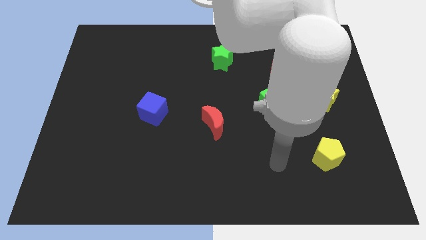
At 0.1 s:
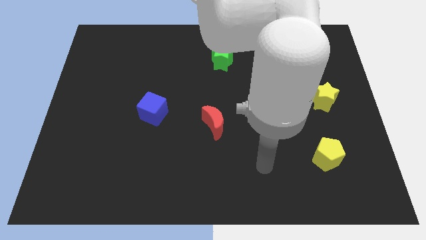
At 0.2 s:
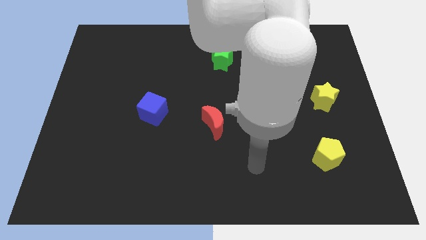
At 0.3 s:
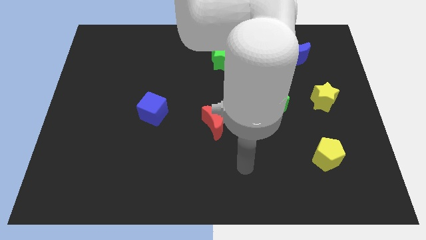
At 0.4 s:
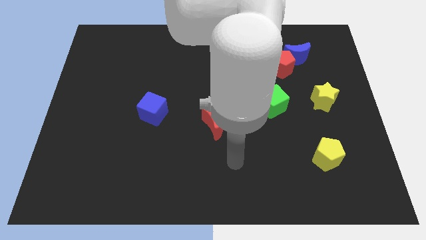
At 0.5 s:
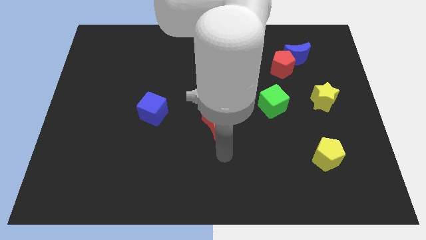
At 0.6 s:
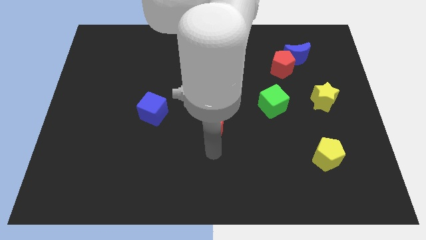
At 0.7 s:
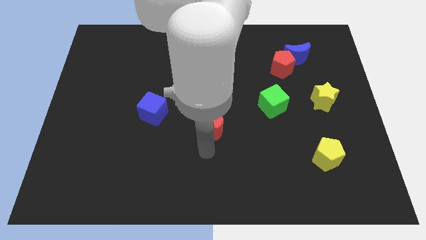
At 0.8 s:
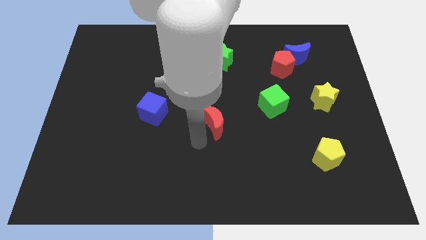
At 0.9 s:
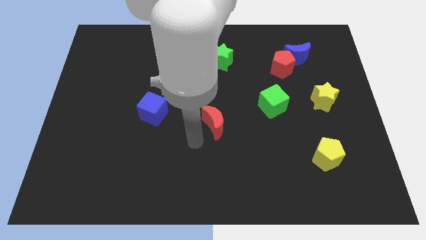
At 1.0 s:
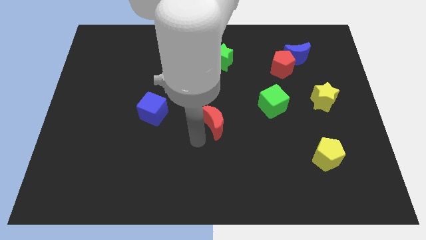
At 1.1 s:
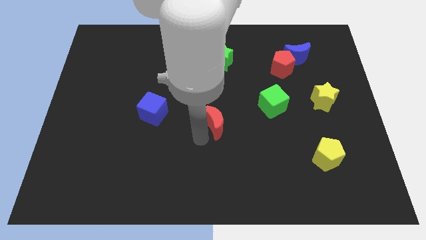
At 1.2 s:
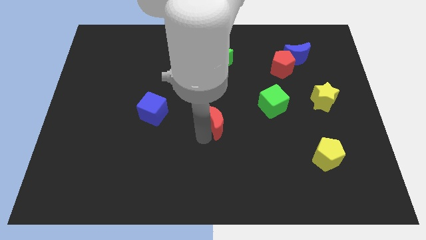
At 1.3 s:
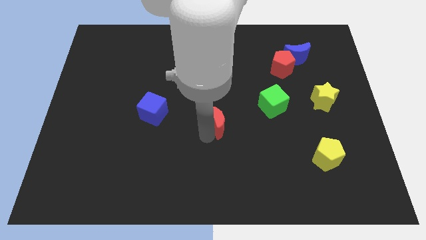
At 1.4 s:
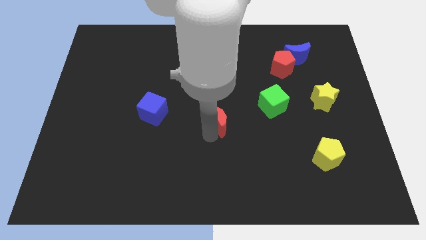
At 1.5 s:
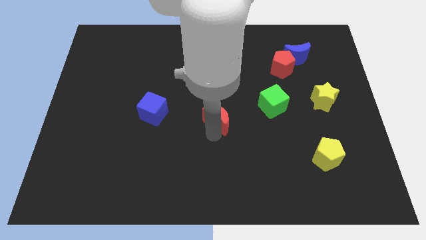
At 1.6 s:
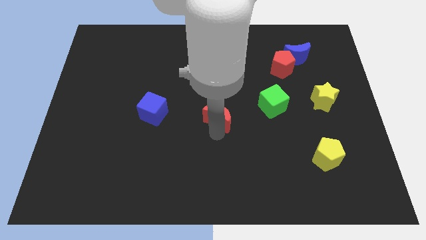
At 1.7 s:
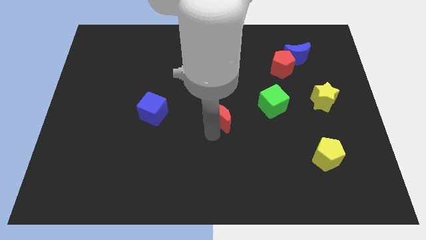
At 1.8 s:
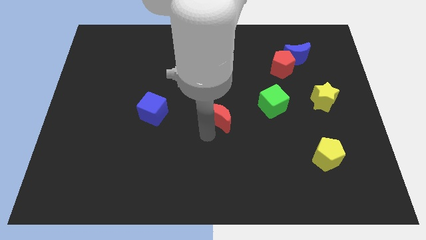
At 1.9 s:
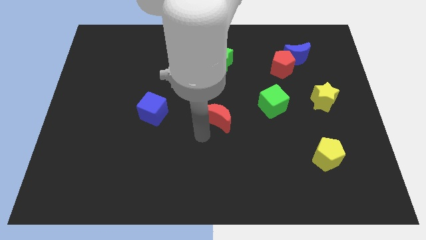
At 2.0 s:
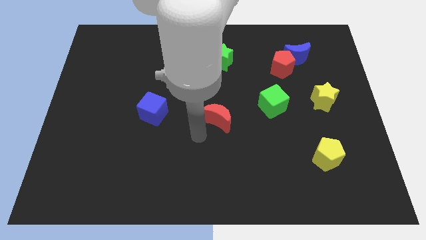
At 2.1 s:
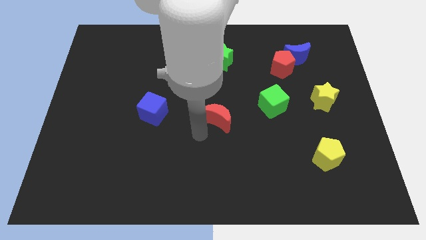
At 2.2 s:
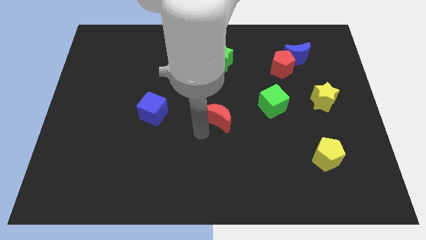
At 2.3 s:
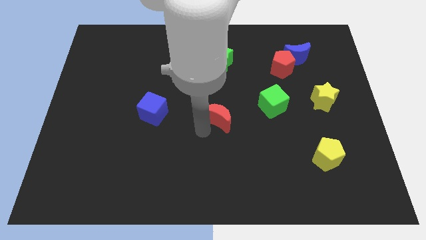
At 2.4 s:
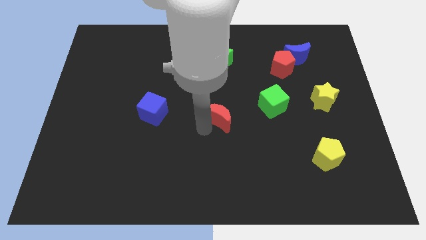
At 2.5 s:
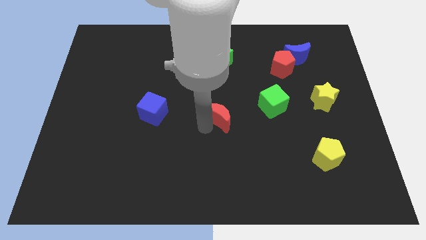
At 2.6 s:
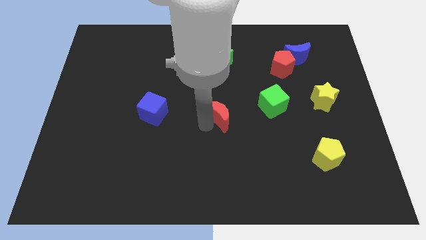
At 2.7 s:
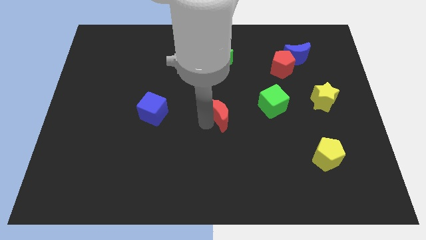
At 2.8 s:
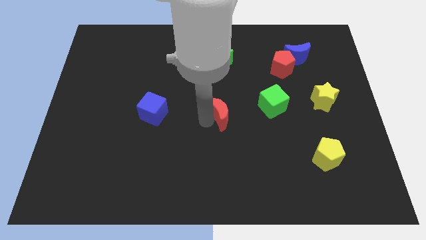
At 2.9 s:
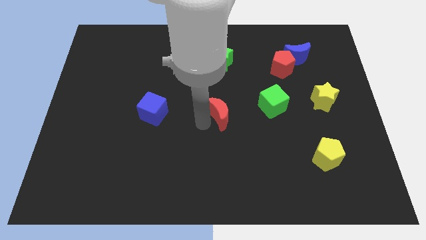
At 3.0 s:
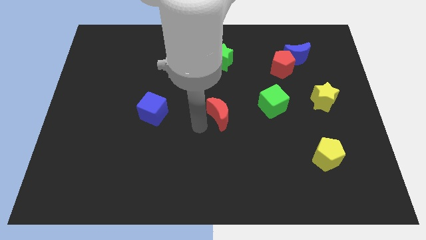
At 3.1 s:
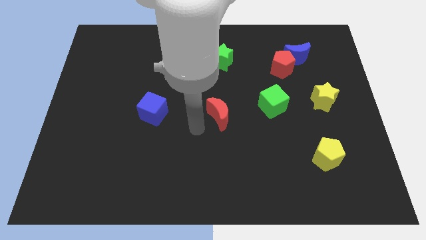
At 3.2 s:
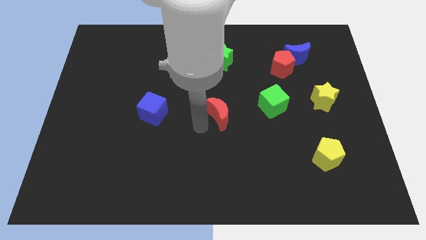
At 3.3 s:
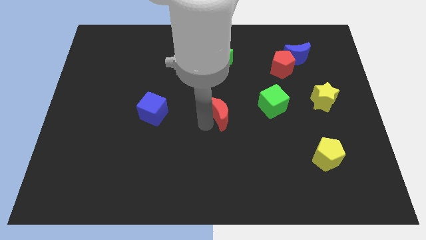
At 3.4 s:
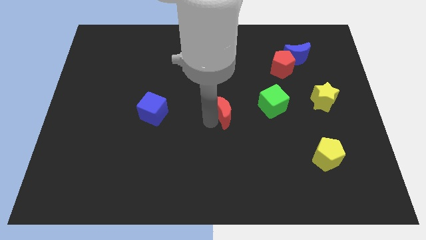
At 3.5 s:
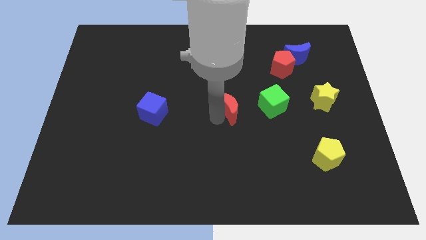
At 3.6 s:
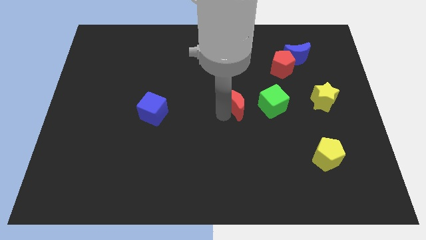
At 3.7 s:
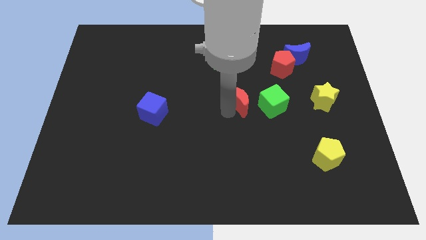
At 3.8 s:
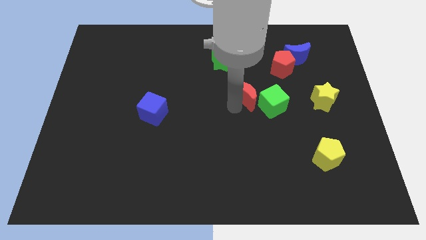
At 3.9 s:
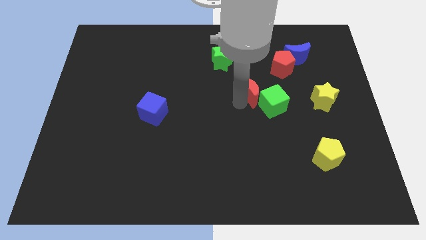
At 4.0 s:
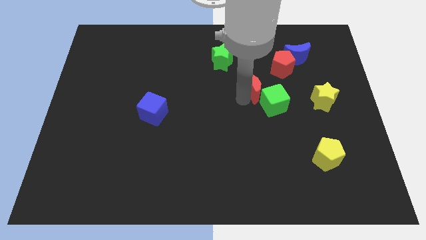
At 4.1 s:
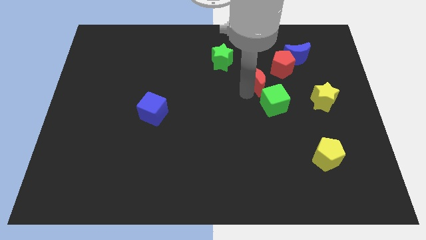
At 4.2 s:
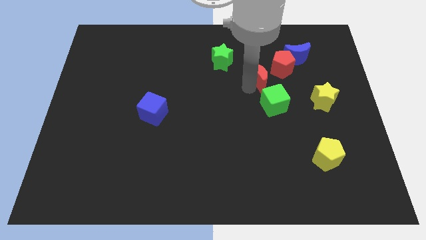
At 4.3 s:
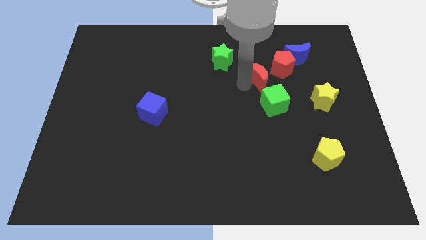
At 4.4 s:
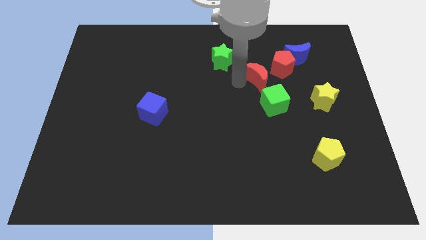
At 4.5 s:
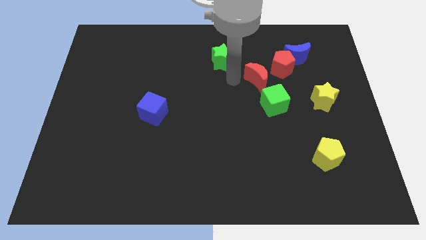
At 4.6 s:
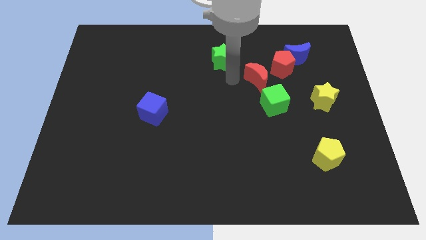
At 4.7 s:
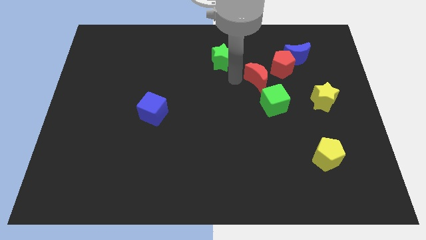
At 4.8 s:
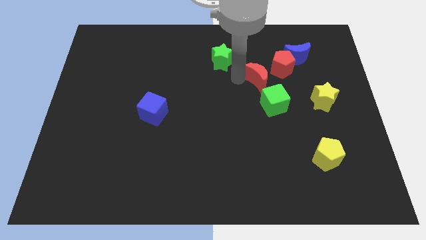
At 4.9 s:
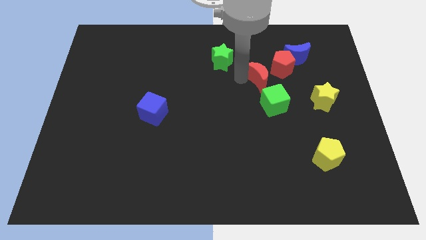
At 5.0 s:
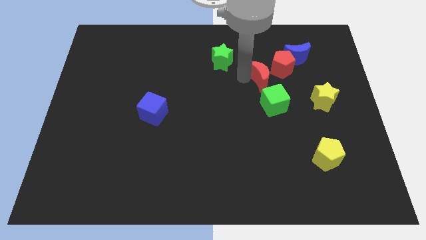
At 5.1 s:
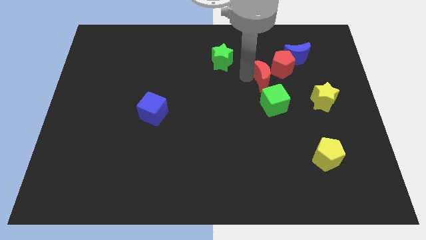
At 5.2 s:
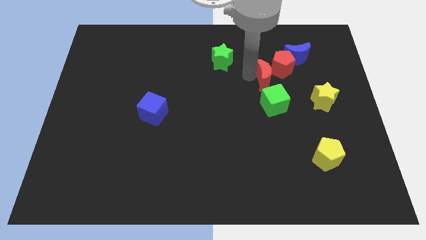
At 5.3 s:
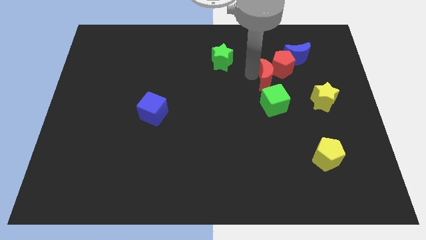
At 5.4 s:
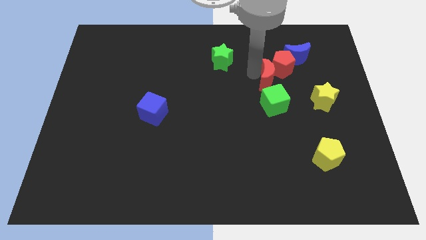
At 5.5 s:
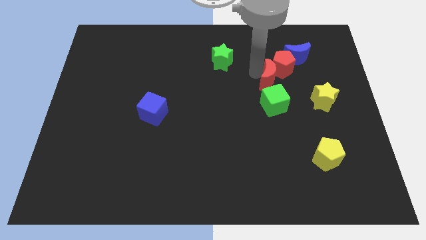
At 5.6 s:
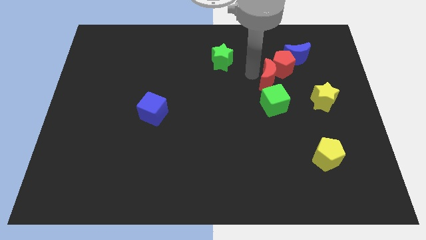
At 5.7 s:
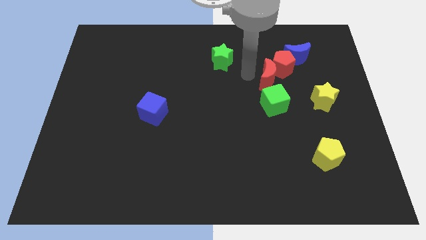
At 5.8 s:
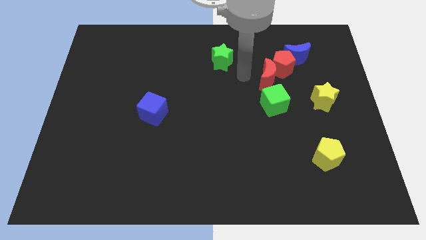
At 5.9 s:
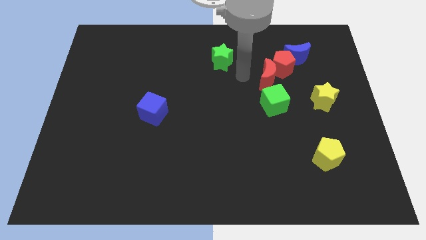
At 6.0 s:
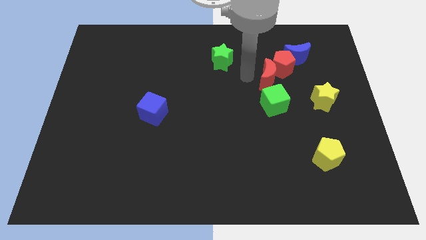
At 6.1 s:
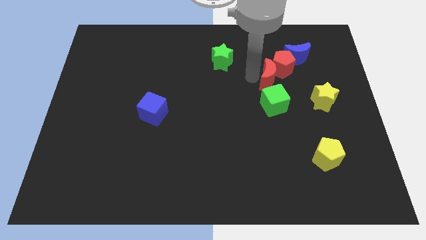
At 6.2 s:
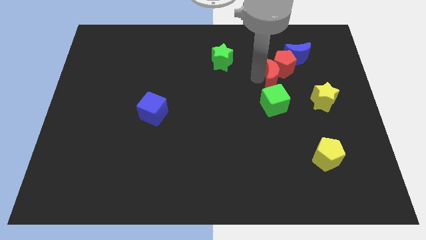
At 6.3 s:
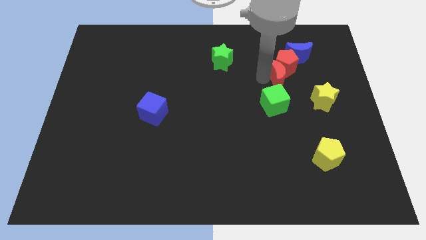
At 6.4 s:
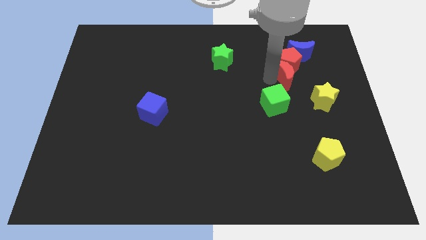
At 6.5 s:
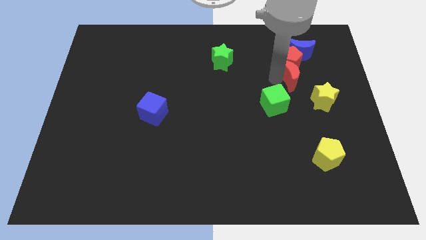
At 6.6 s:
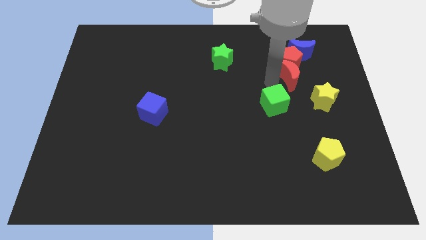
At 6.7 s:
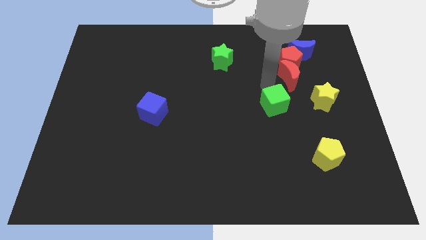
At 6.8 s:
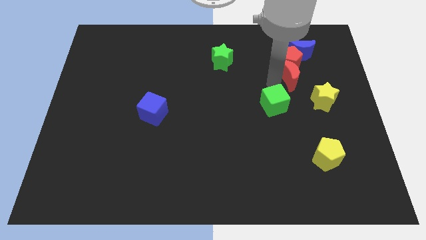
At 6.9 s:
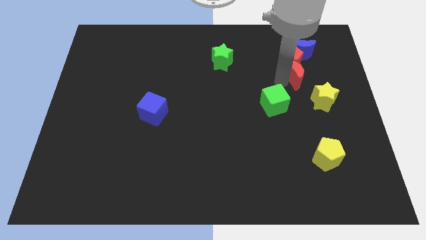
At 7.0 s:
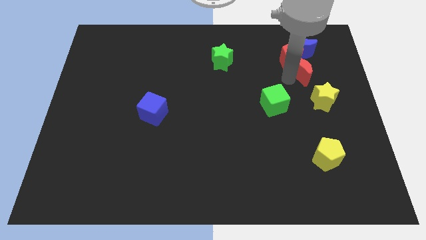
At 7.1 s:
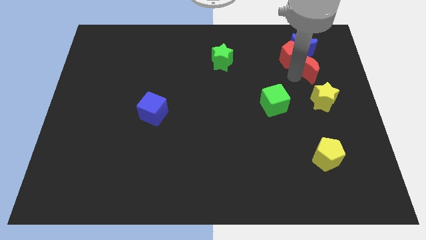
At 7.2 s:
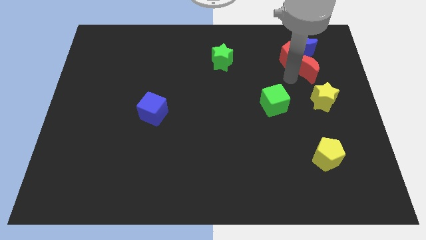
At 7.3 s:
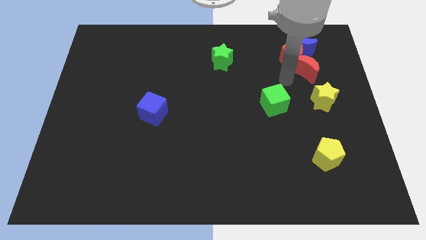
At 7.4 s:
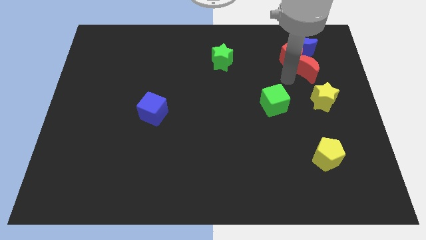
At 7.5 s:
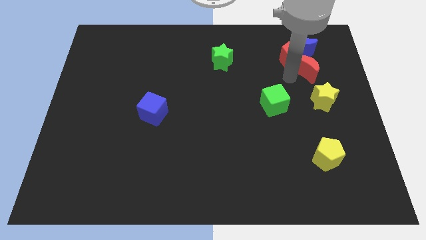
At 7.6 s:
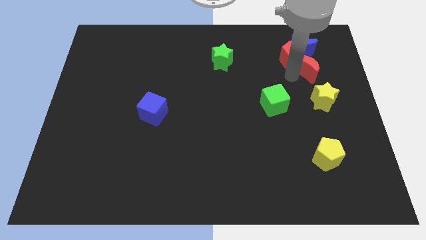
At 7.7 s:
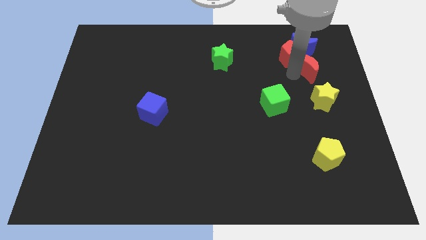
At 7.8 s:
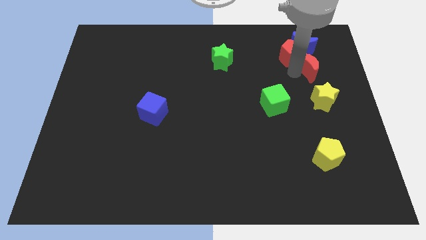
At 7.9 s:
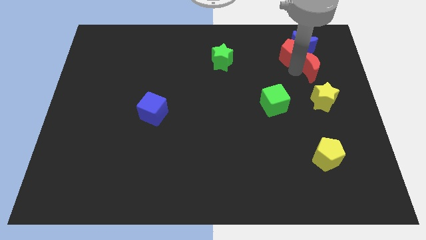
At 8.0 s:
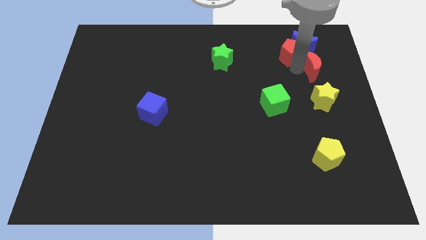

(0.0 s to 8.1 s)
put the red moon to the bottom right of the blue moon
